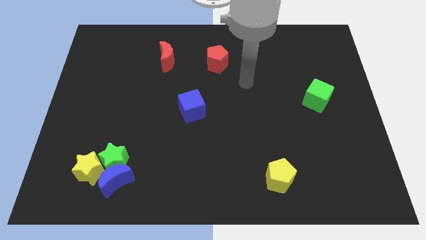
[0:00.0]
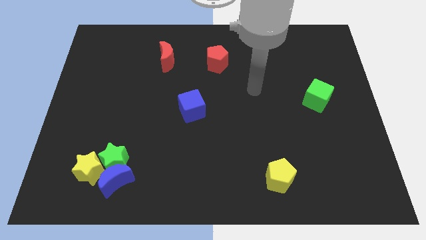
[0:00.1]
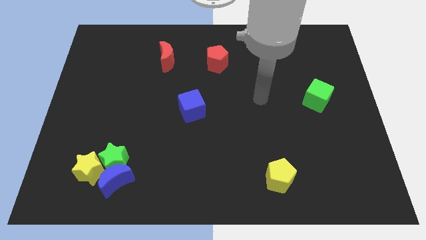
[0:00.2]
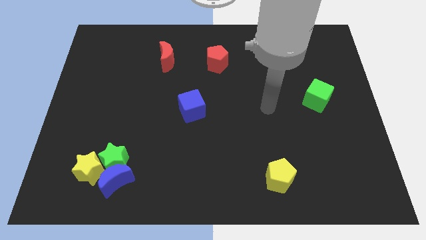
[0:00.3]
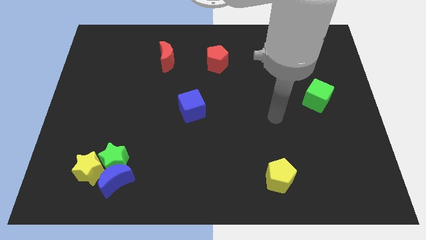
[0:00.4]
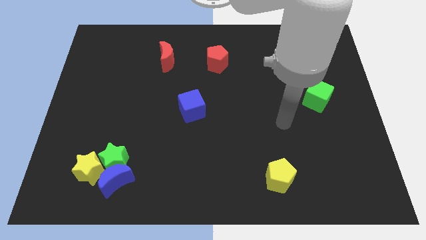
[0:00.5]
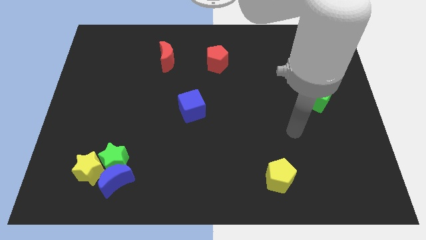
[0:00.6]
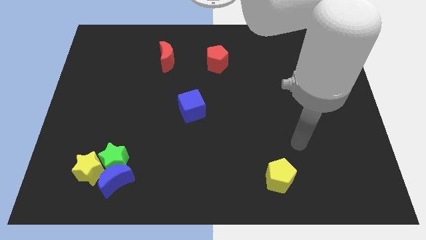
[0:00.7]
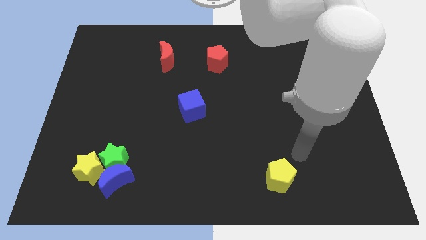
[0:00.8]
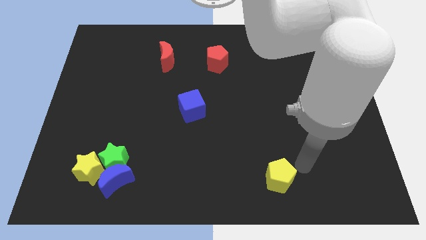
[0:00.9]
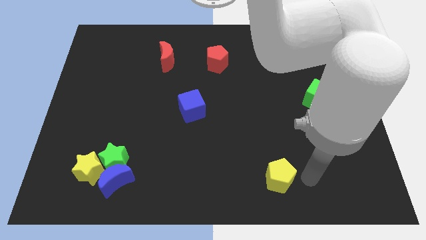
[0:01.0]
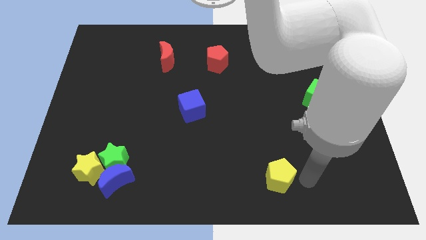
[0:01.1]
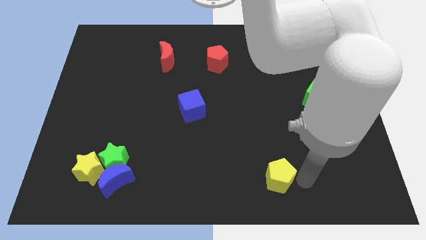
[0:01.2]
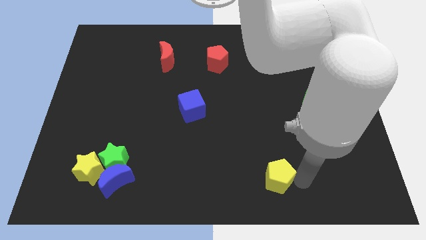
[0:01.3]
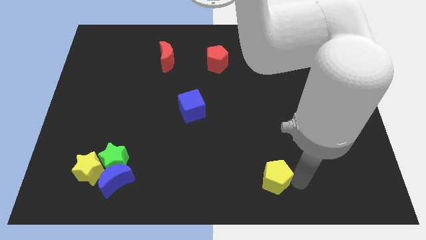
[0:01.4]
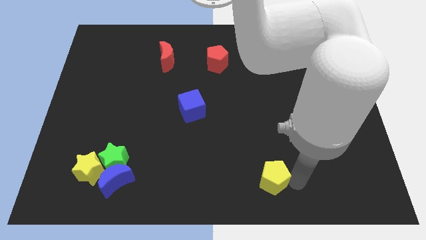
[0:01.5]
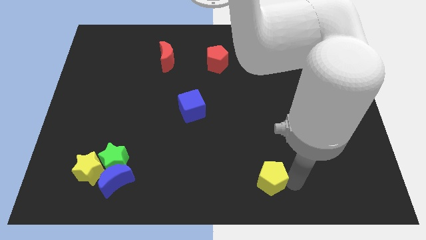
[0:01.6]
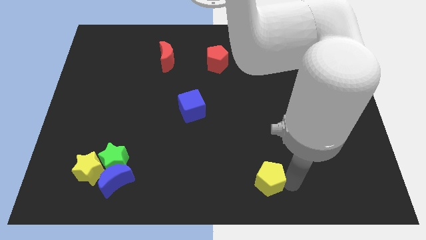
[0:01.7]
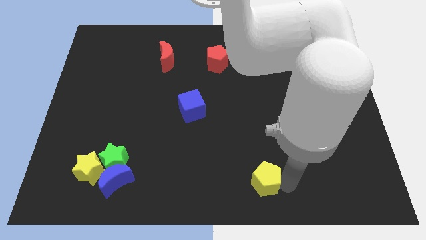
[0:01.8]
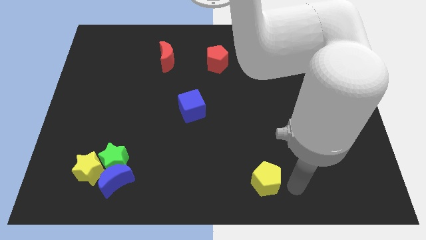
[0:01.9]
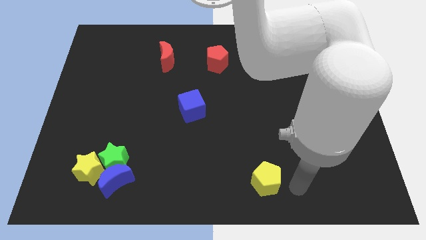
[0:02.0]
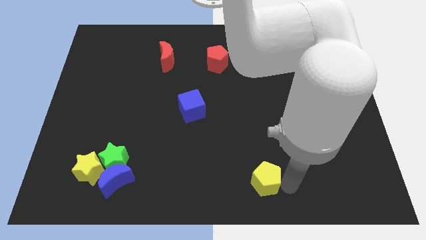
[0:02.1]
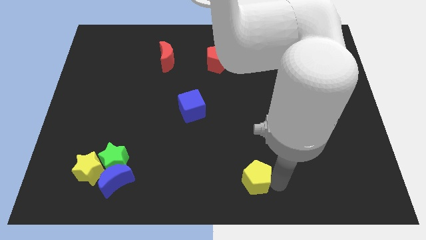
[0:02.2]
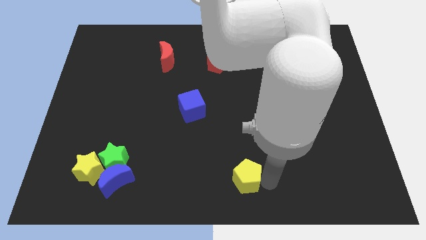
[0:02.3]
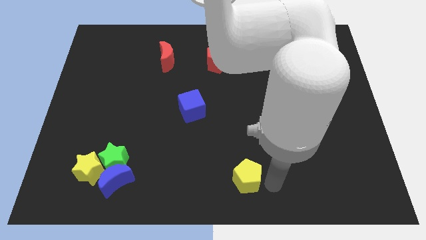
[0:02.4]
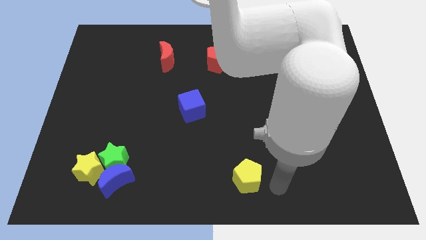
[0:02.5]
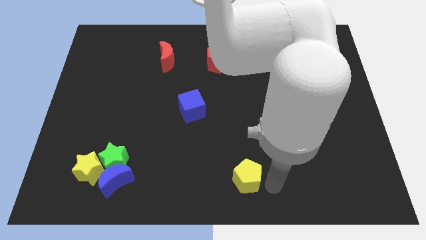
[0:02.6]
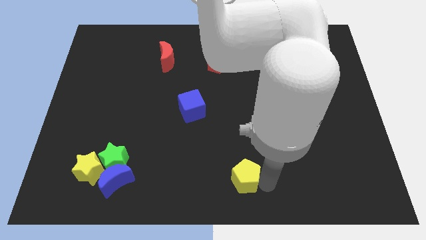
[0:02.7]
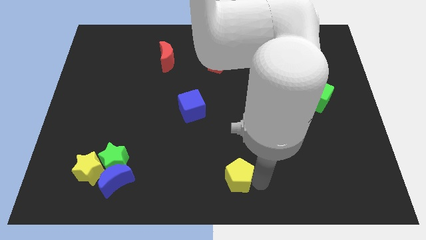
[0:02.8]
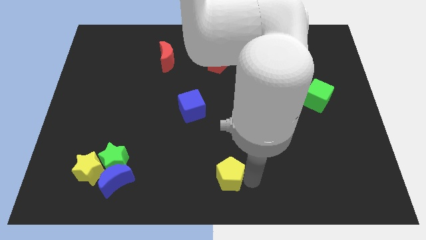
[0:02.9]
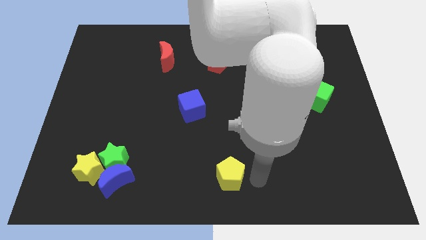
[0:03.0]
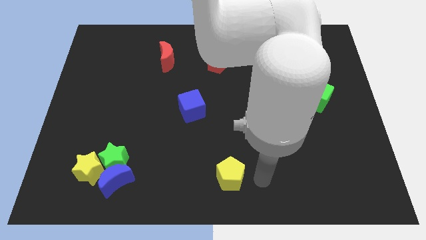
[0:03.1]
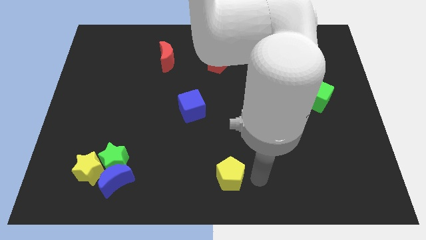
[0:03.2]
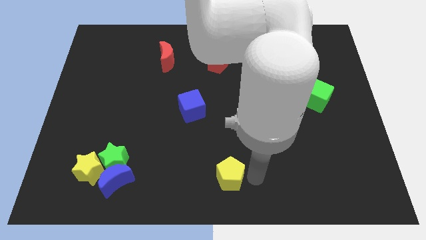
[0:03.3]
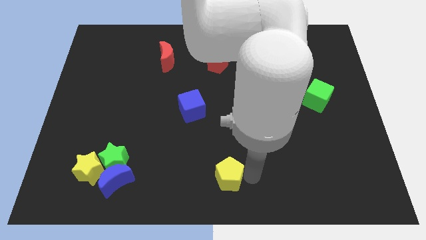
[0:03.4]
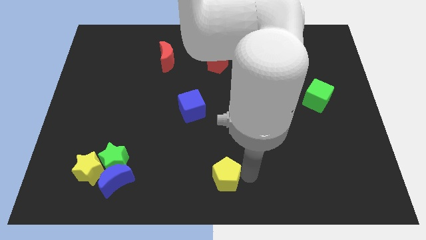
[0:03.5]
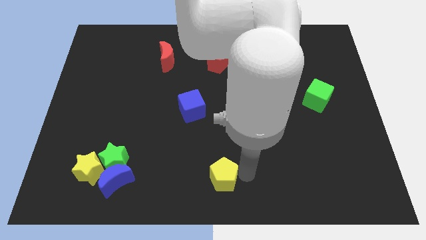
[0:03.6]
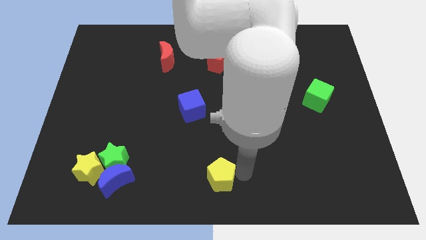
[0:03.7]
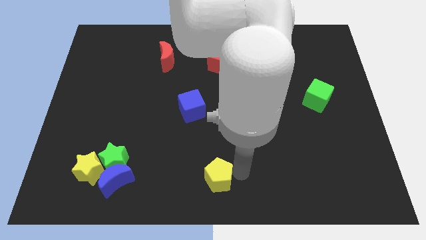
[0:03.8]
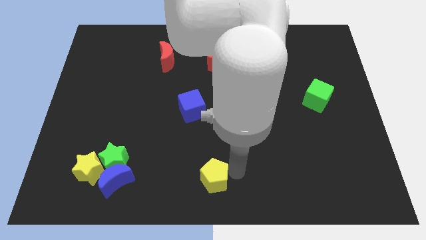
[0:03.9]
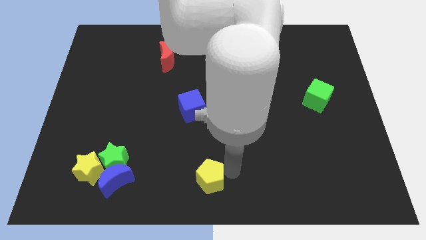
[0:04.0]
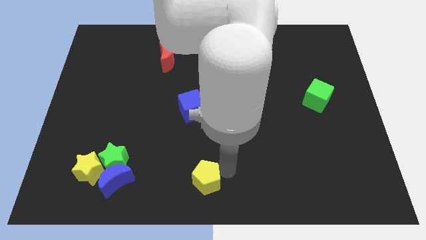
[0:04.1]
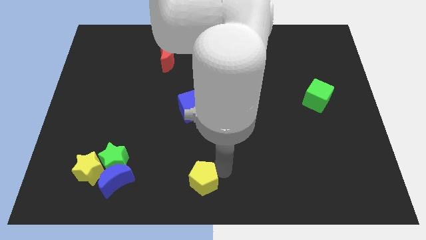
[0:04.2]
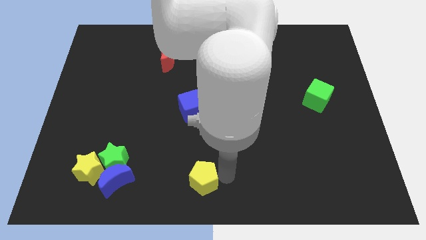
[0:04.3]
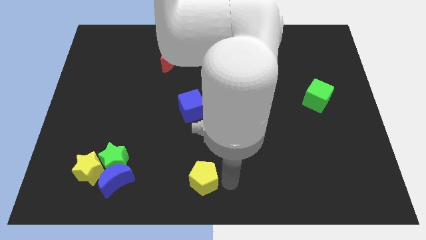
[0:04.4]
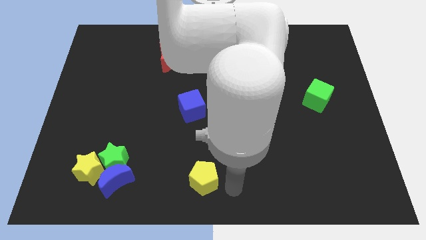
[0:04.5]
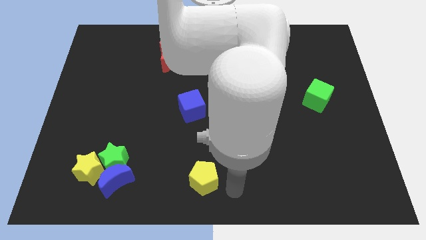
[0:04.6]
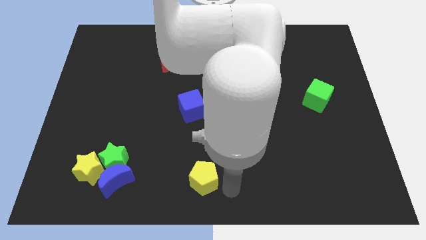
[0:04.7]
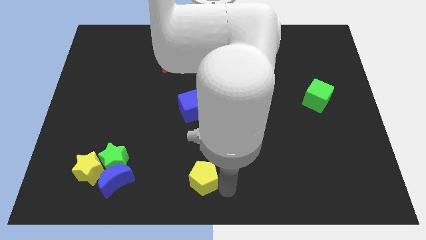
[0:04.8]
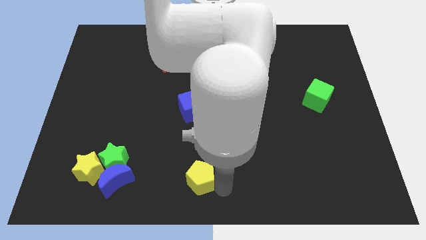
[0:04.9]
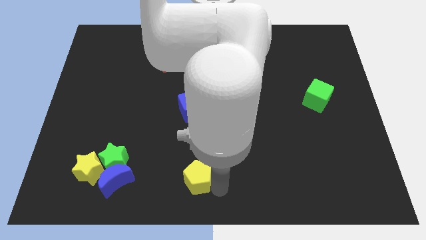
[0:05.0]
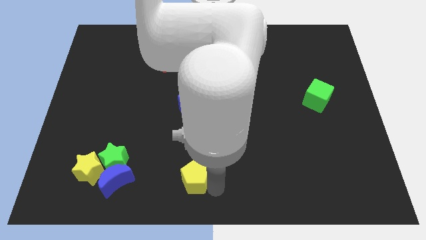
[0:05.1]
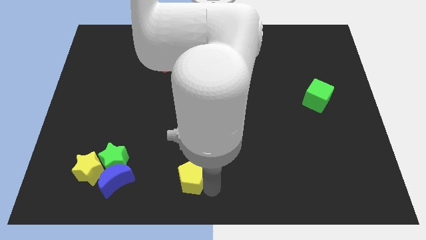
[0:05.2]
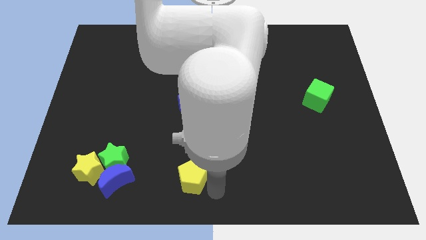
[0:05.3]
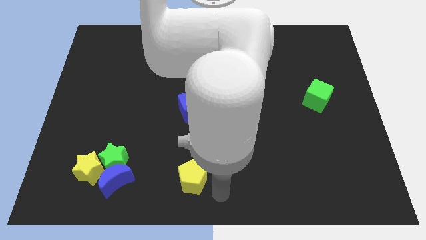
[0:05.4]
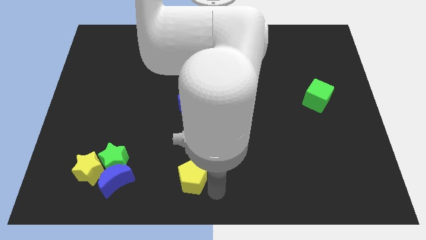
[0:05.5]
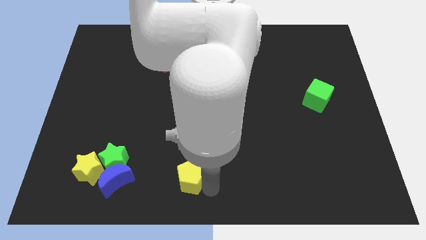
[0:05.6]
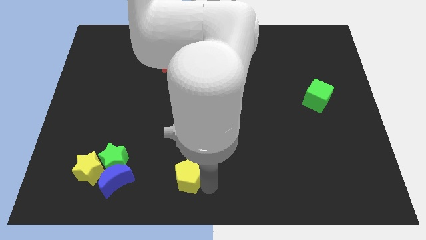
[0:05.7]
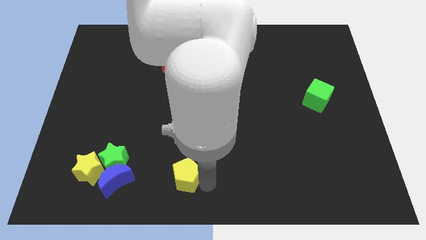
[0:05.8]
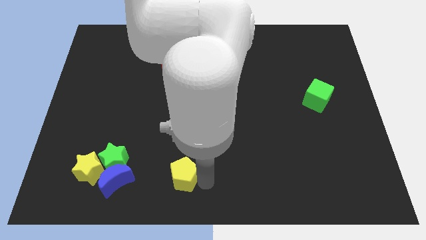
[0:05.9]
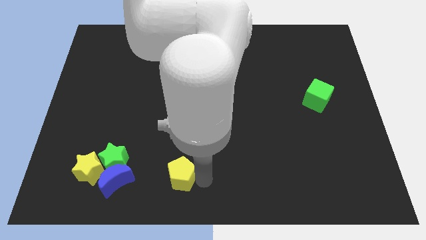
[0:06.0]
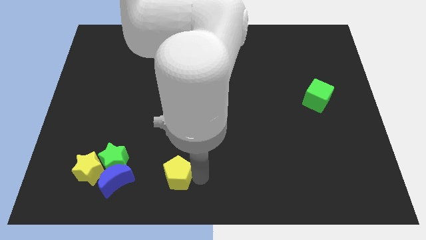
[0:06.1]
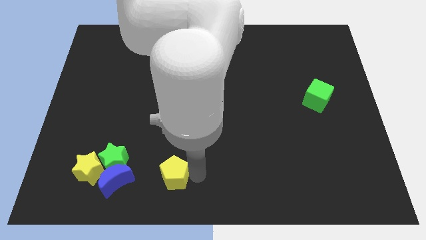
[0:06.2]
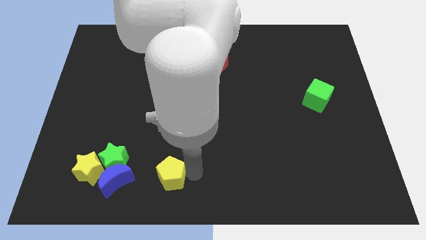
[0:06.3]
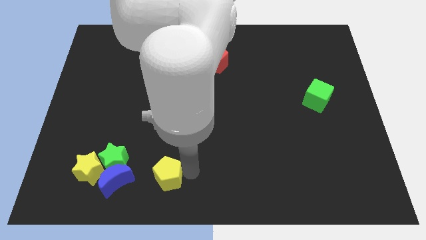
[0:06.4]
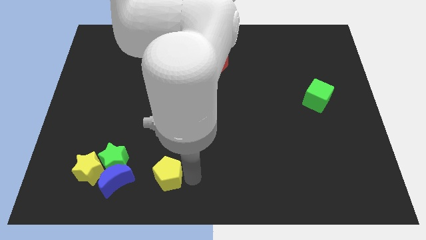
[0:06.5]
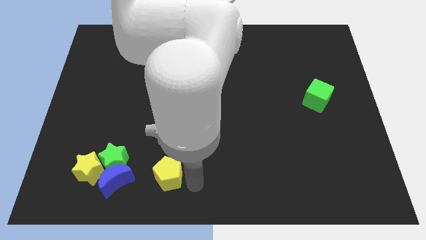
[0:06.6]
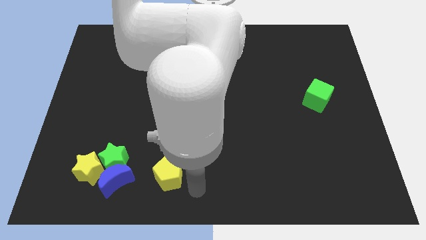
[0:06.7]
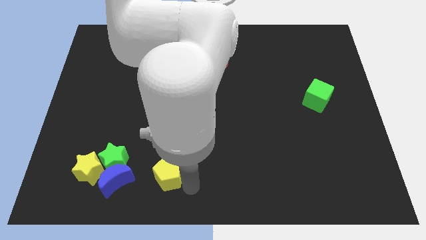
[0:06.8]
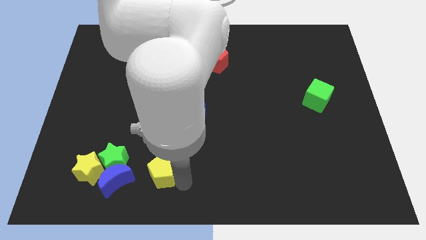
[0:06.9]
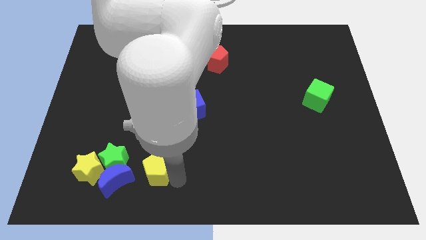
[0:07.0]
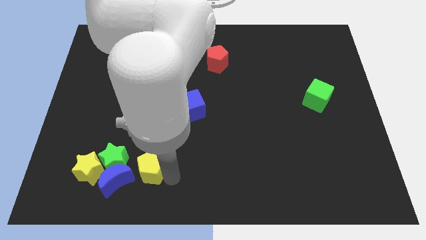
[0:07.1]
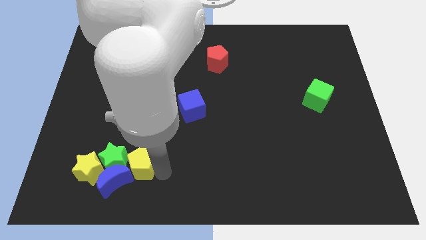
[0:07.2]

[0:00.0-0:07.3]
put the yellow pentagon towards the green star

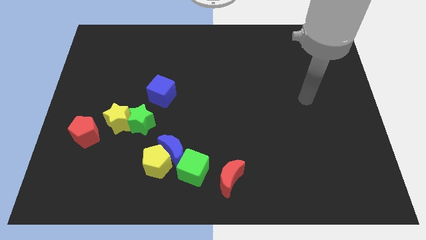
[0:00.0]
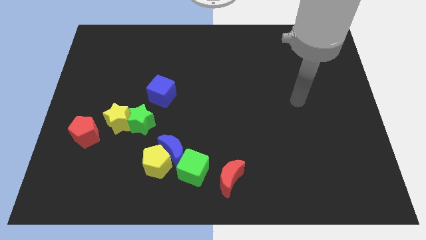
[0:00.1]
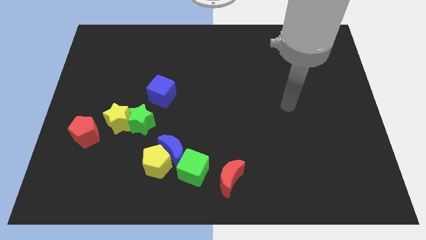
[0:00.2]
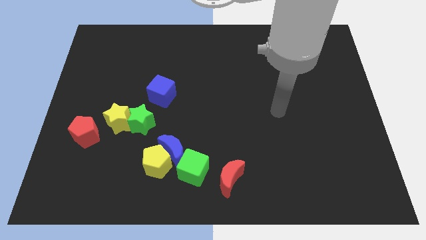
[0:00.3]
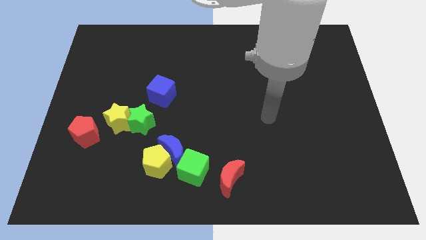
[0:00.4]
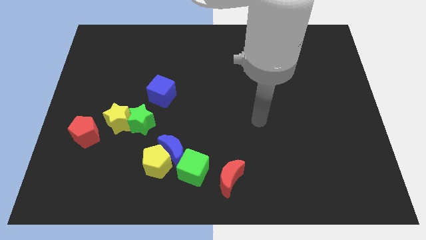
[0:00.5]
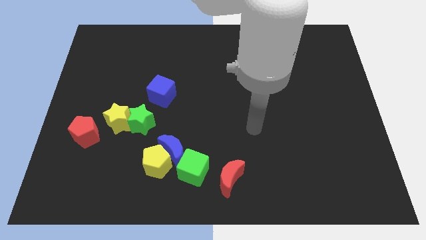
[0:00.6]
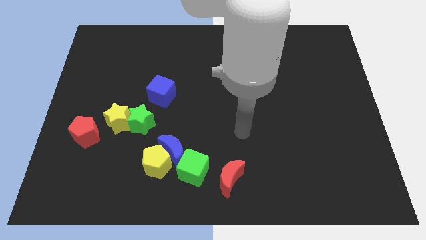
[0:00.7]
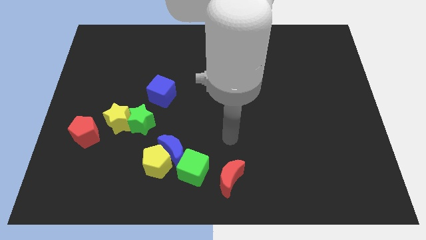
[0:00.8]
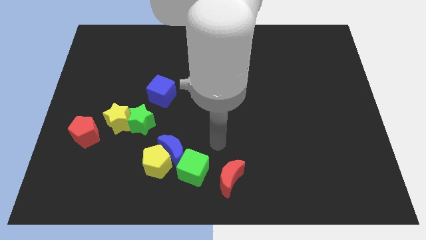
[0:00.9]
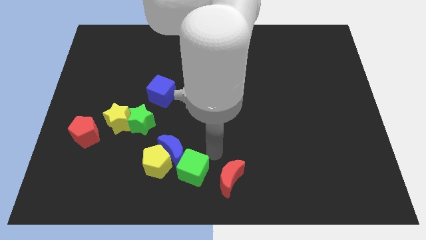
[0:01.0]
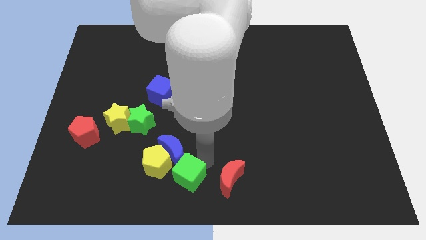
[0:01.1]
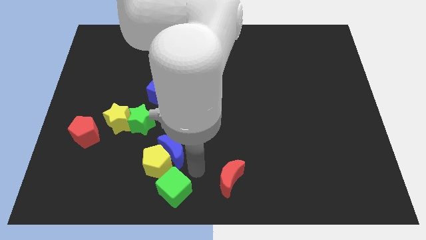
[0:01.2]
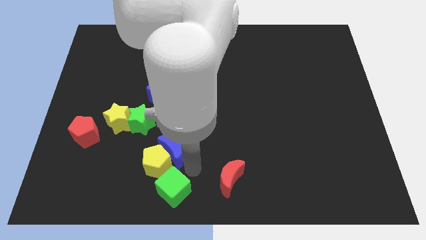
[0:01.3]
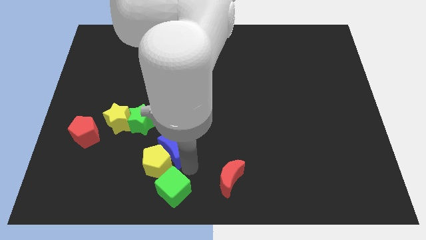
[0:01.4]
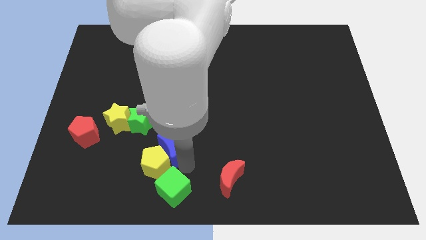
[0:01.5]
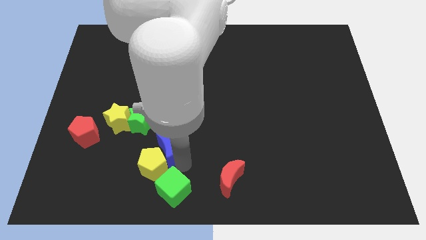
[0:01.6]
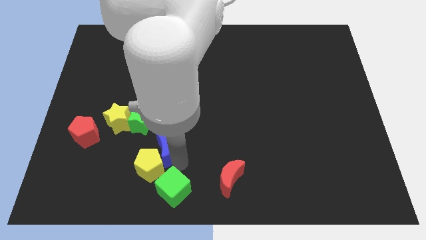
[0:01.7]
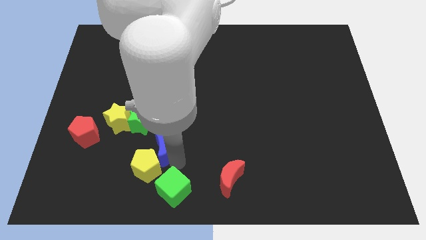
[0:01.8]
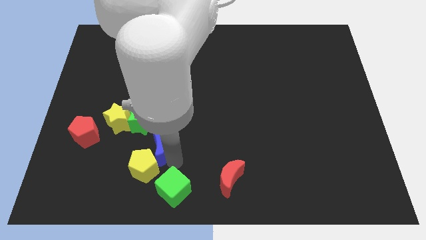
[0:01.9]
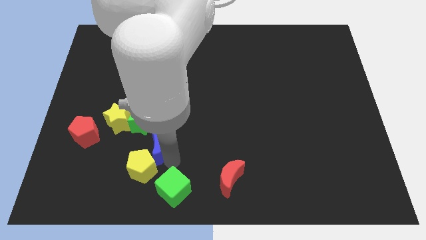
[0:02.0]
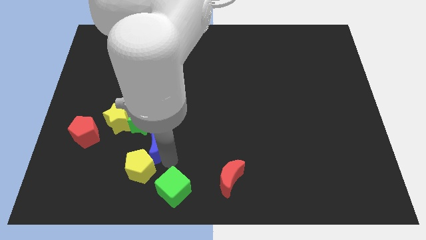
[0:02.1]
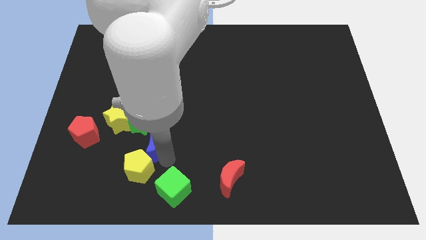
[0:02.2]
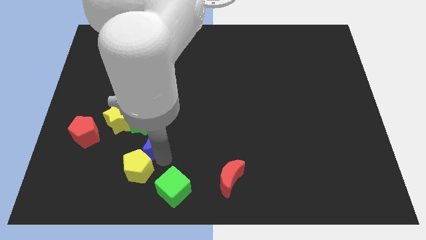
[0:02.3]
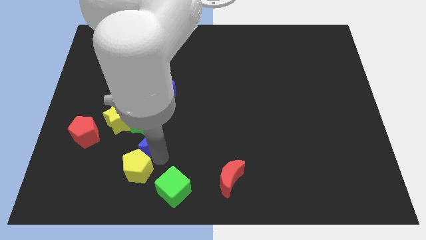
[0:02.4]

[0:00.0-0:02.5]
move the blue moon next to the green star
